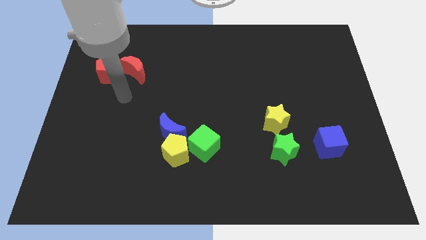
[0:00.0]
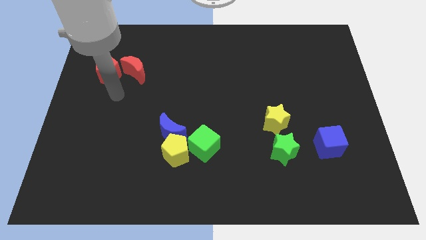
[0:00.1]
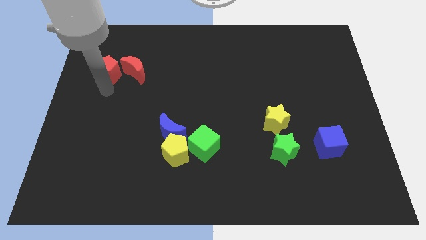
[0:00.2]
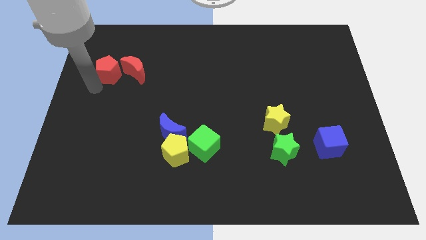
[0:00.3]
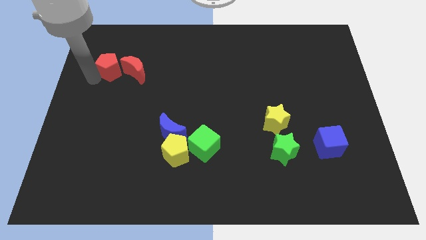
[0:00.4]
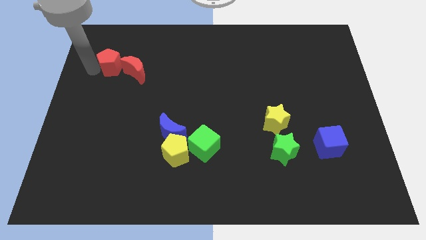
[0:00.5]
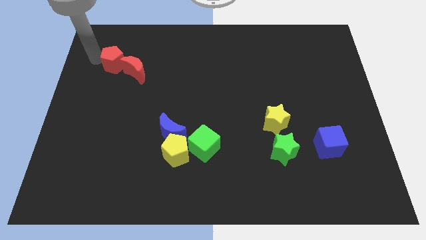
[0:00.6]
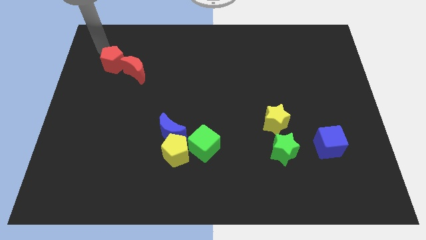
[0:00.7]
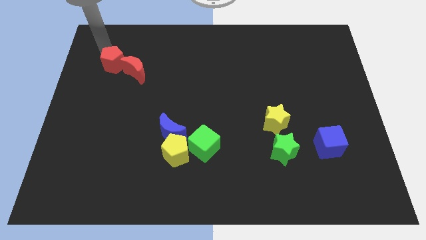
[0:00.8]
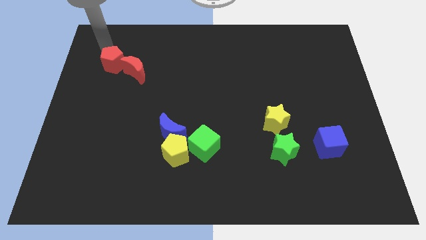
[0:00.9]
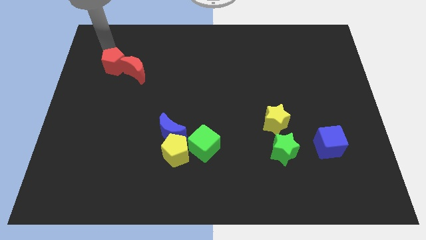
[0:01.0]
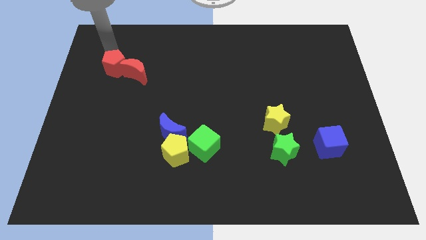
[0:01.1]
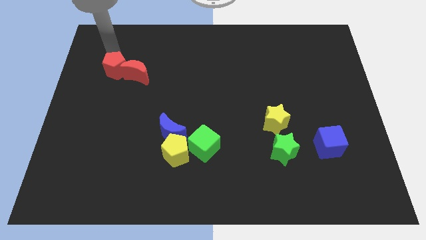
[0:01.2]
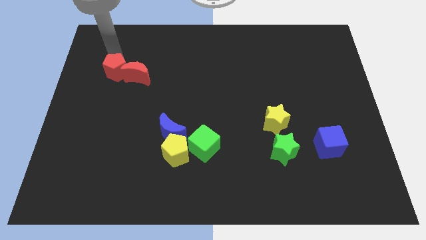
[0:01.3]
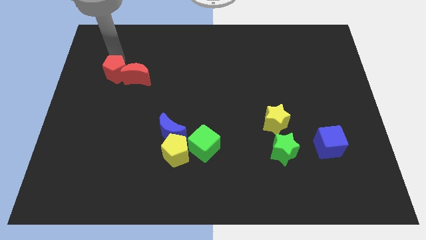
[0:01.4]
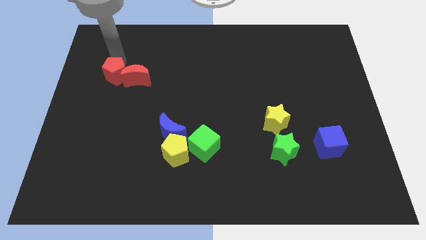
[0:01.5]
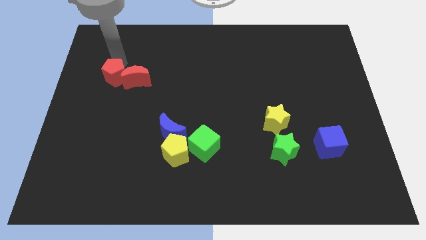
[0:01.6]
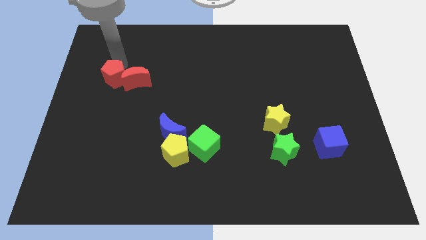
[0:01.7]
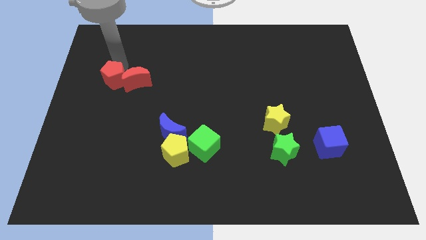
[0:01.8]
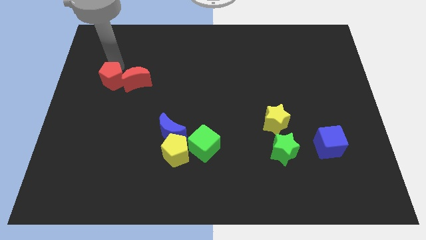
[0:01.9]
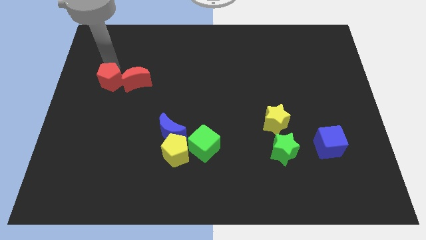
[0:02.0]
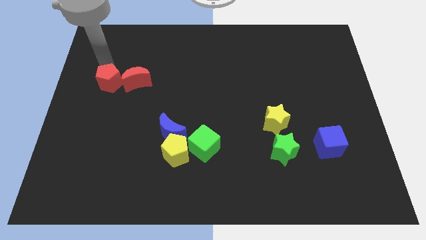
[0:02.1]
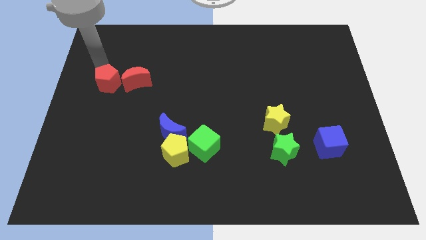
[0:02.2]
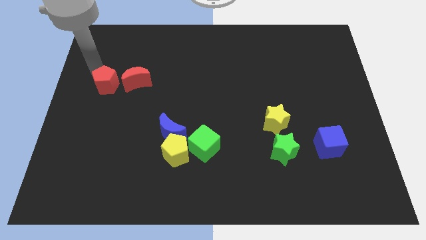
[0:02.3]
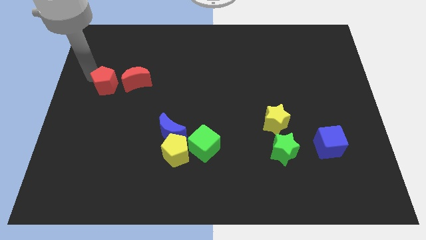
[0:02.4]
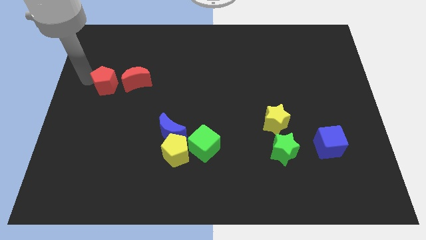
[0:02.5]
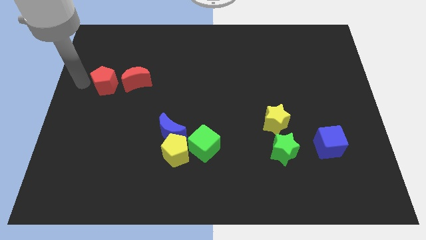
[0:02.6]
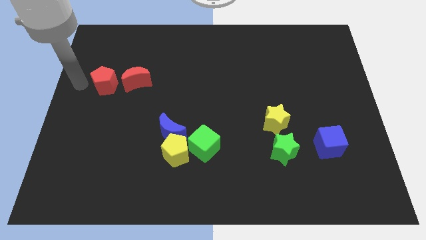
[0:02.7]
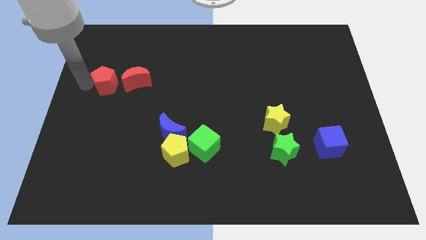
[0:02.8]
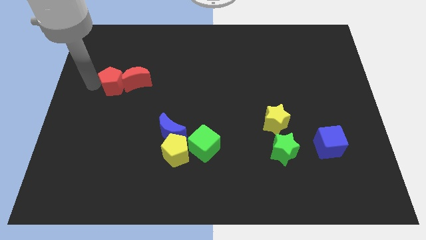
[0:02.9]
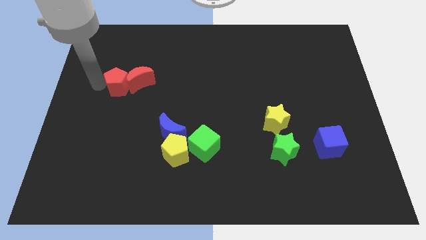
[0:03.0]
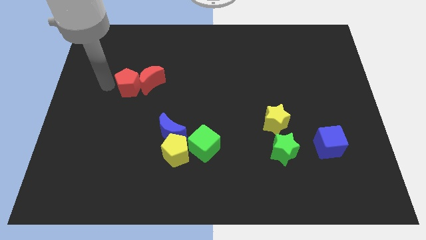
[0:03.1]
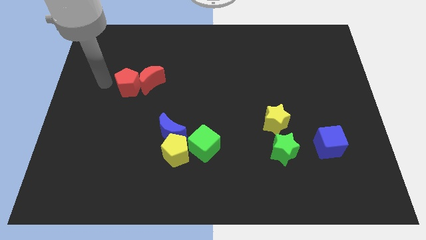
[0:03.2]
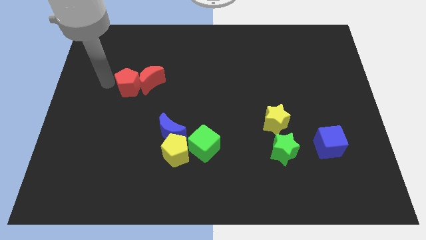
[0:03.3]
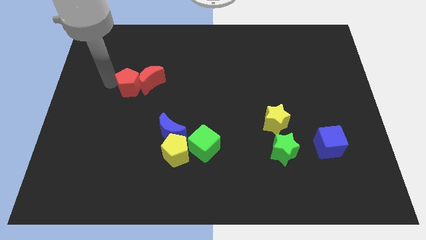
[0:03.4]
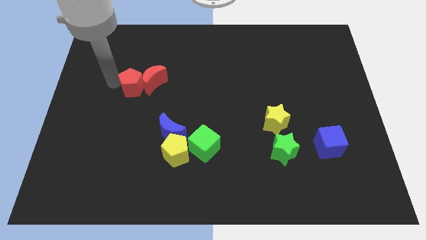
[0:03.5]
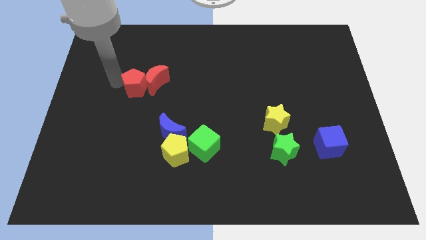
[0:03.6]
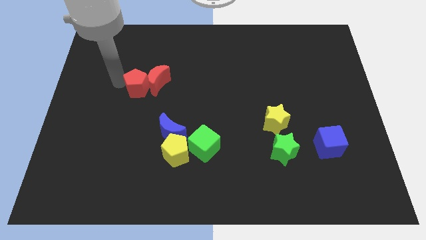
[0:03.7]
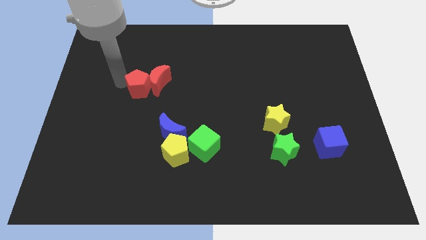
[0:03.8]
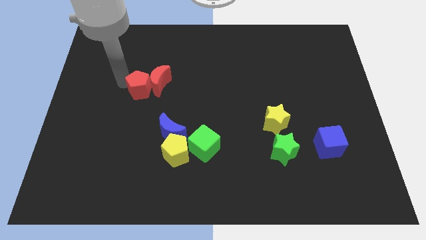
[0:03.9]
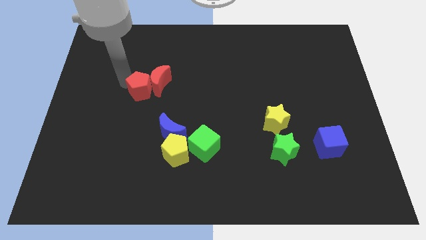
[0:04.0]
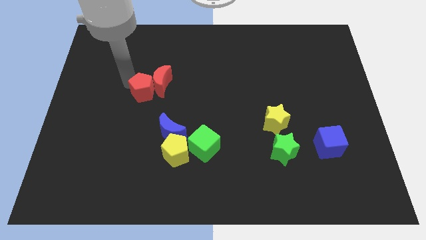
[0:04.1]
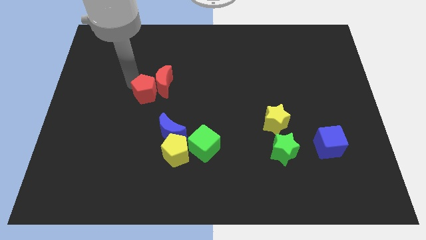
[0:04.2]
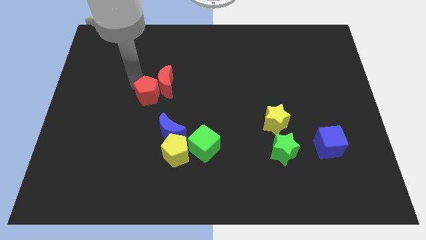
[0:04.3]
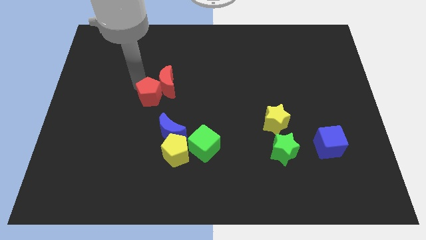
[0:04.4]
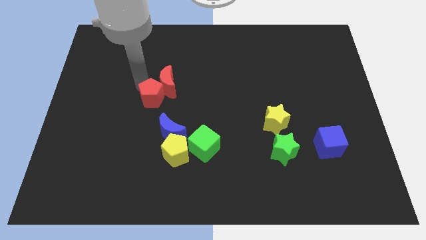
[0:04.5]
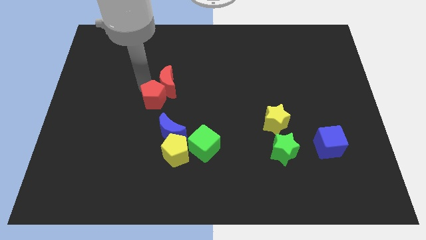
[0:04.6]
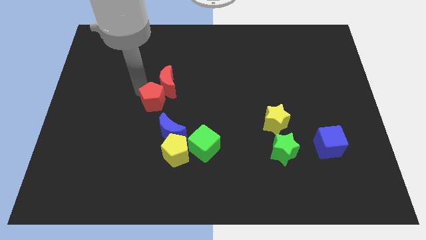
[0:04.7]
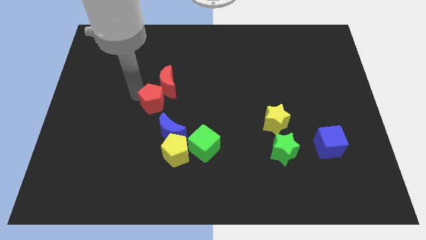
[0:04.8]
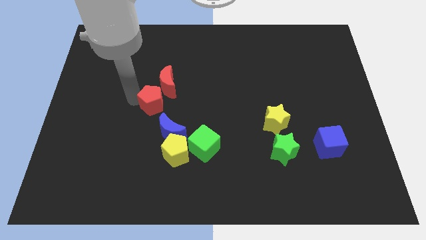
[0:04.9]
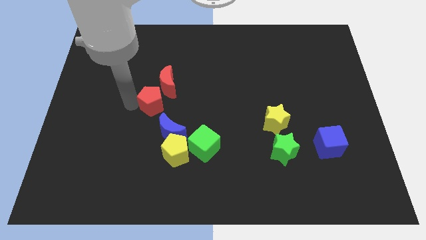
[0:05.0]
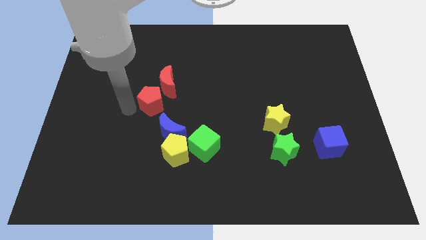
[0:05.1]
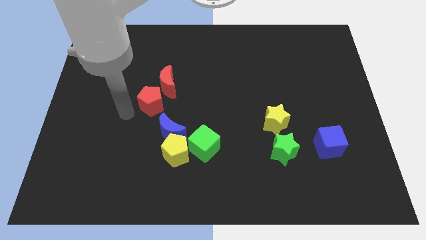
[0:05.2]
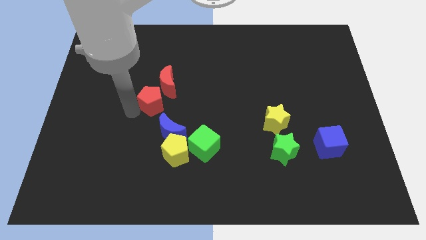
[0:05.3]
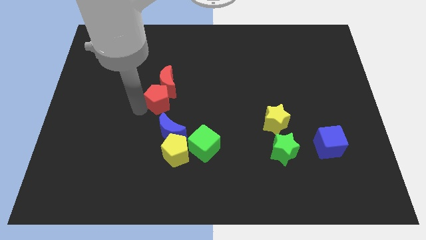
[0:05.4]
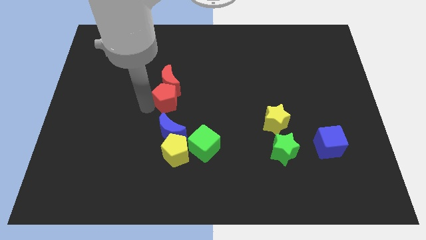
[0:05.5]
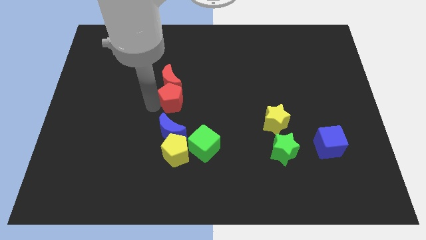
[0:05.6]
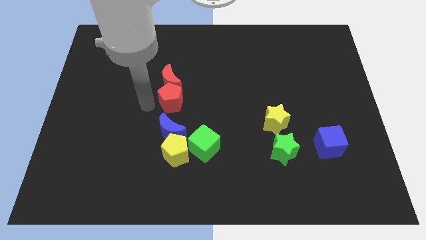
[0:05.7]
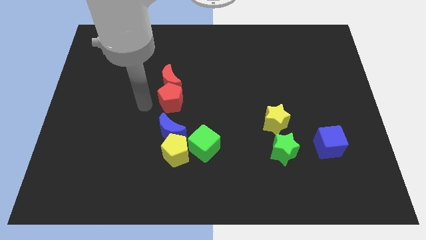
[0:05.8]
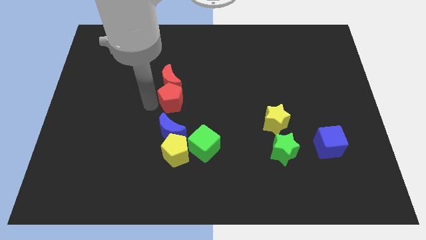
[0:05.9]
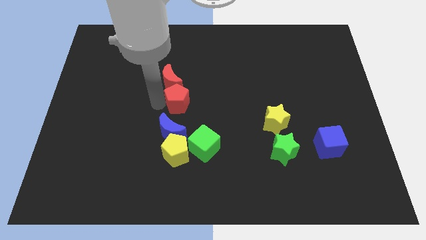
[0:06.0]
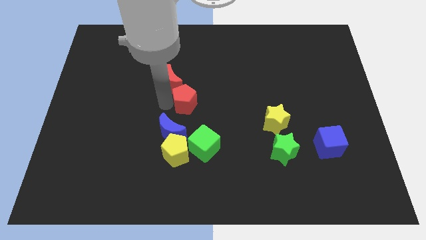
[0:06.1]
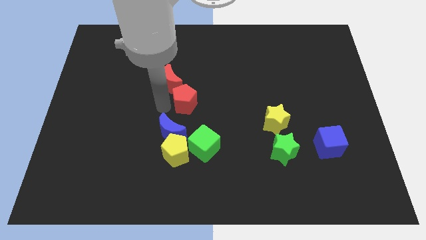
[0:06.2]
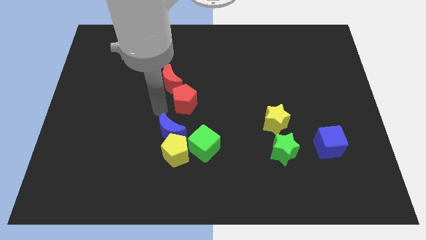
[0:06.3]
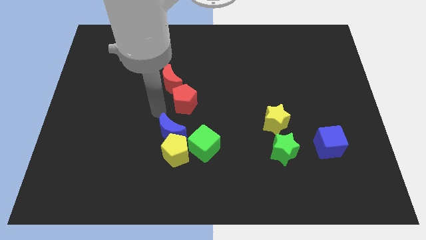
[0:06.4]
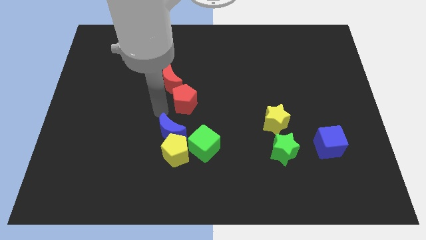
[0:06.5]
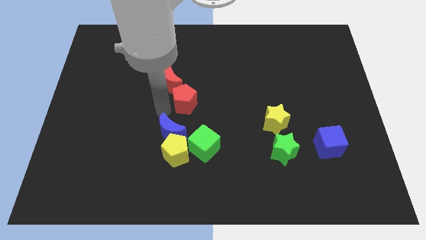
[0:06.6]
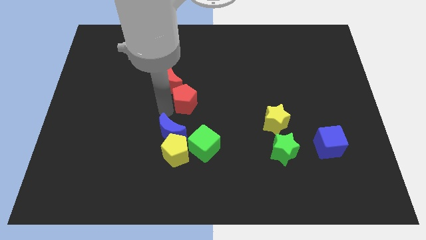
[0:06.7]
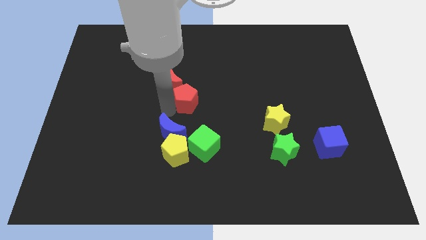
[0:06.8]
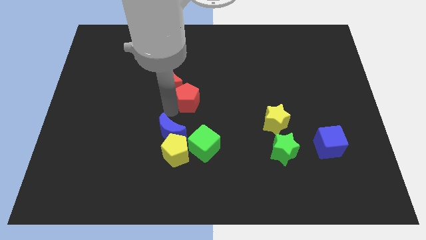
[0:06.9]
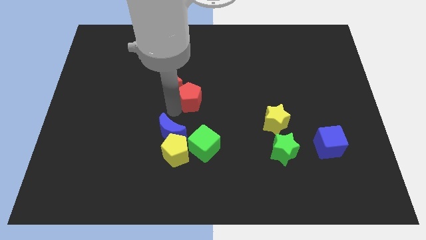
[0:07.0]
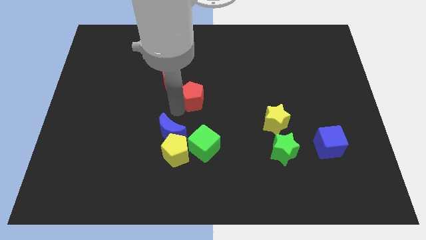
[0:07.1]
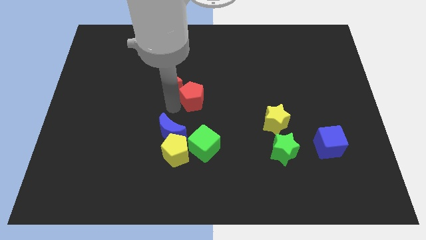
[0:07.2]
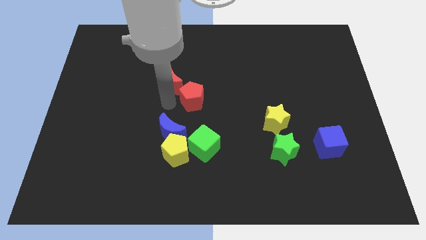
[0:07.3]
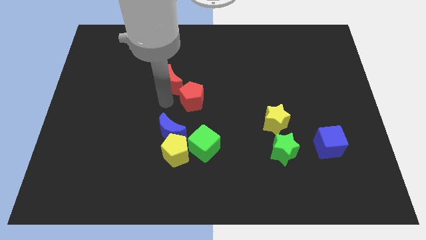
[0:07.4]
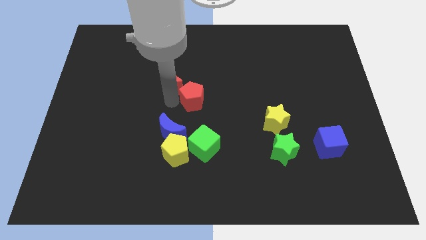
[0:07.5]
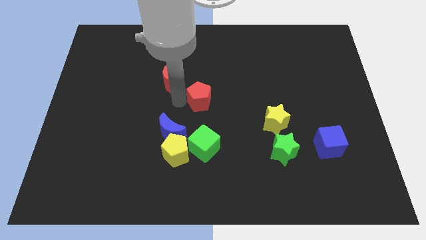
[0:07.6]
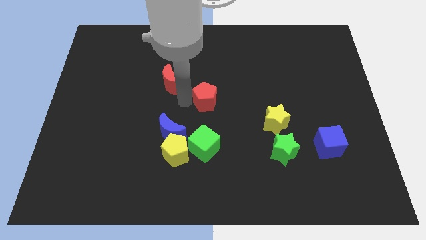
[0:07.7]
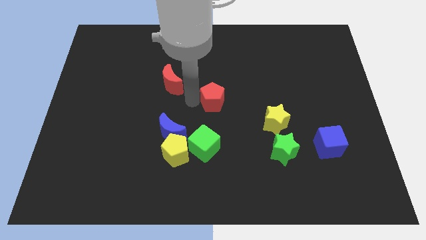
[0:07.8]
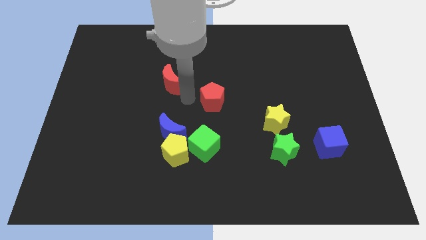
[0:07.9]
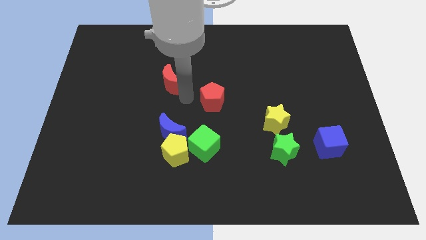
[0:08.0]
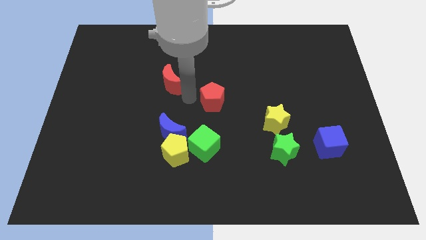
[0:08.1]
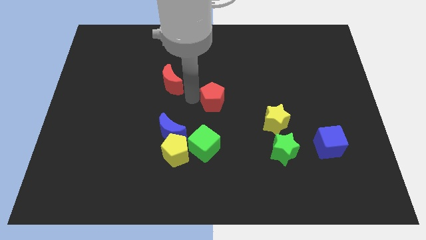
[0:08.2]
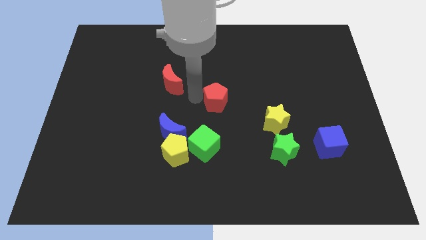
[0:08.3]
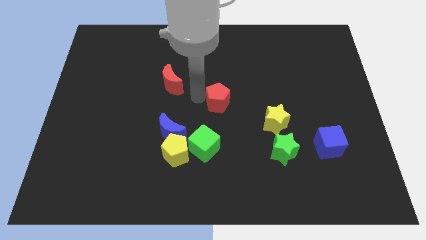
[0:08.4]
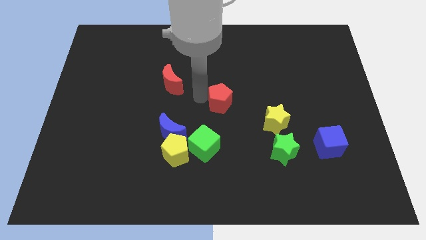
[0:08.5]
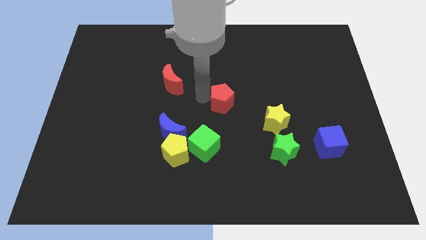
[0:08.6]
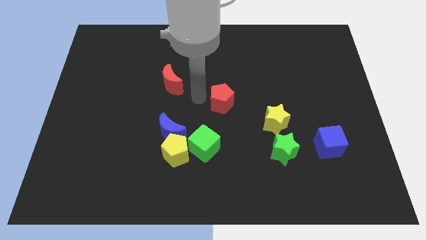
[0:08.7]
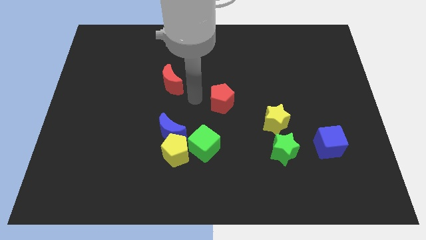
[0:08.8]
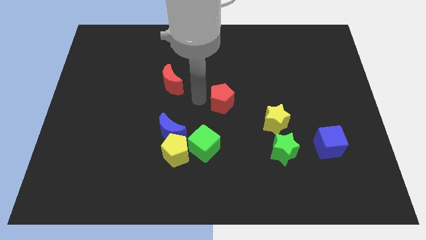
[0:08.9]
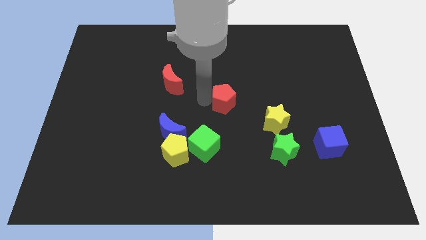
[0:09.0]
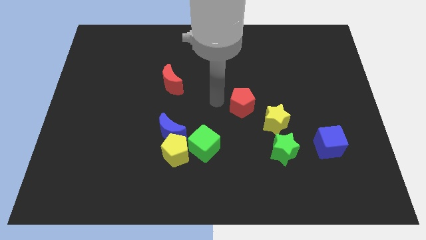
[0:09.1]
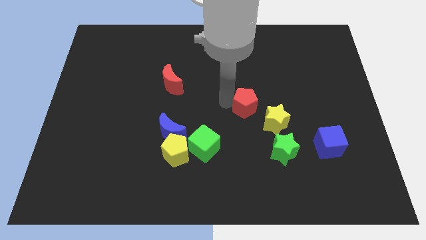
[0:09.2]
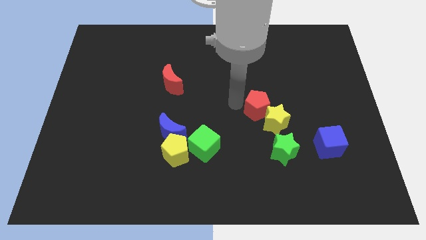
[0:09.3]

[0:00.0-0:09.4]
put the red pentagon to the yellow star
